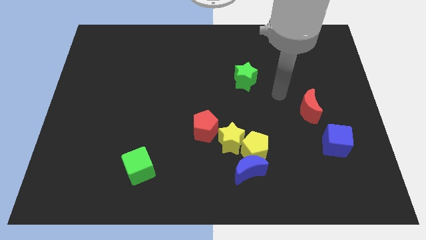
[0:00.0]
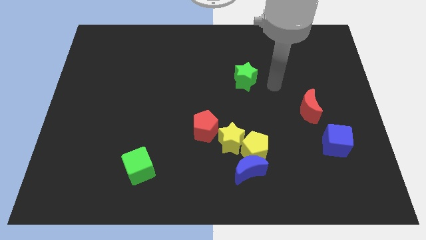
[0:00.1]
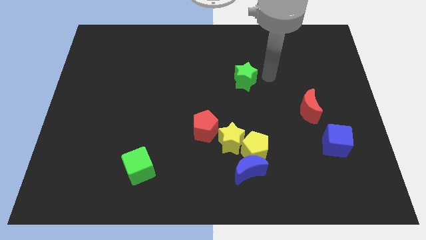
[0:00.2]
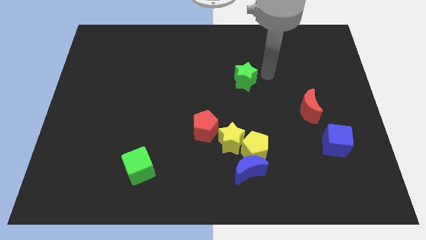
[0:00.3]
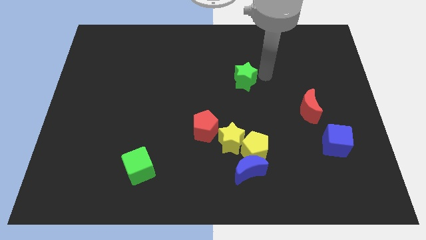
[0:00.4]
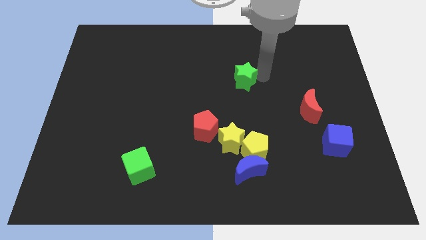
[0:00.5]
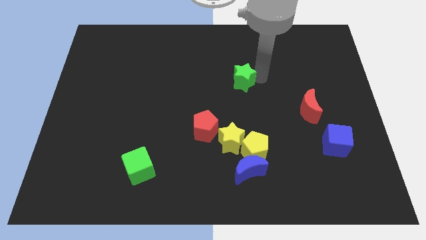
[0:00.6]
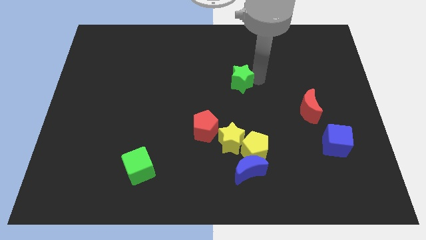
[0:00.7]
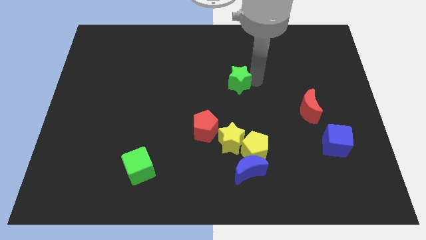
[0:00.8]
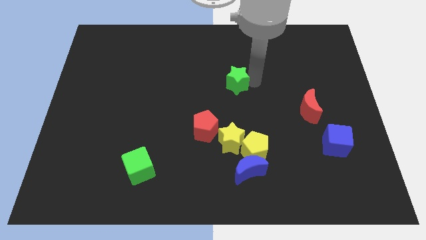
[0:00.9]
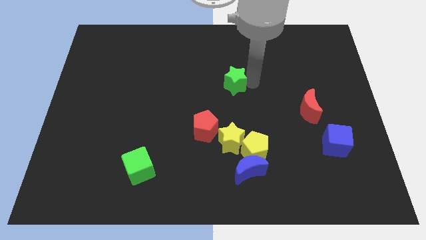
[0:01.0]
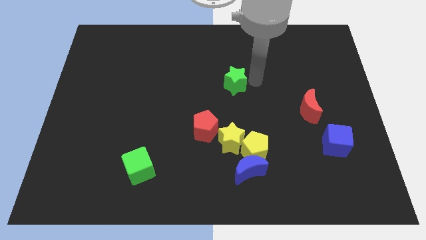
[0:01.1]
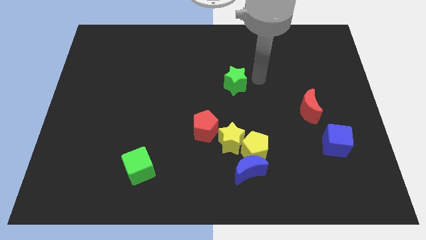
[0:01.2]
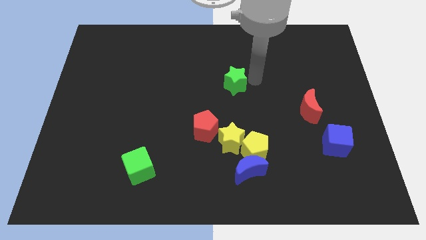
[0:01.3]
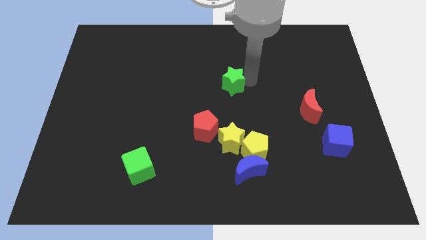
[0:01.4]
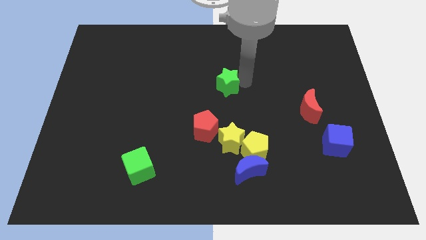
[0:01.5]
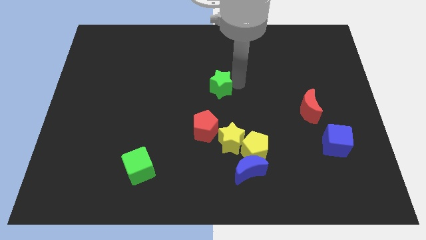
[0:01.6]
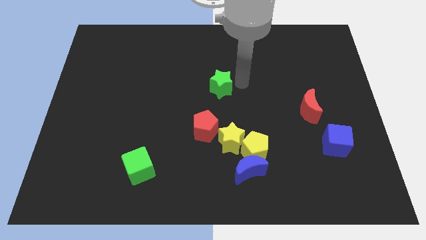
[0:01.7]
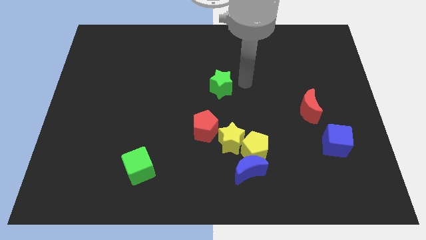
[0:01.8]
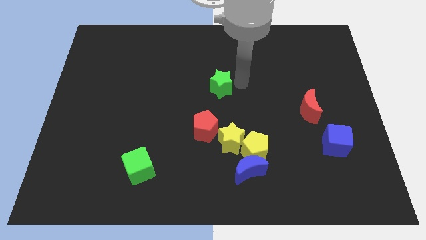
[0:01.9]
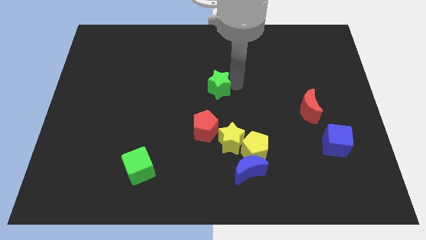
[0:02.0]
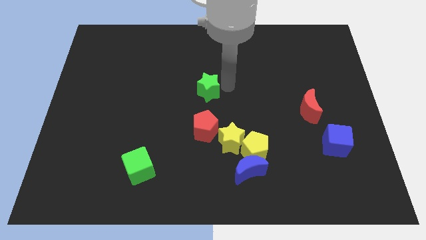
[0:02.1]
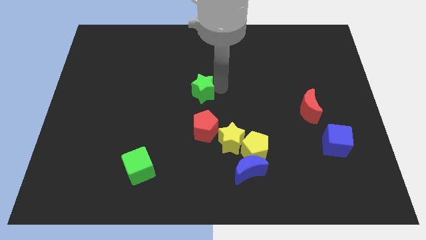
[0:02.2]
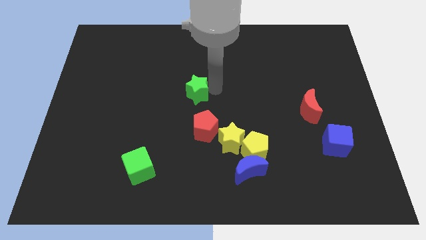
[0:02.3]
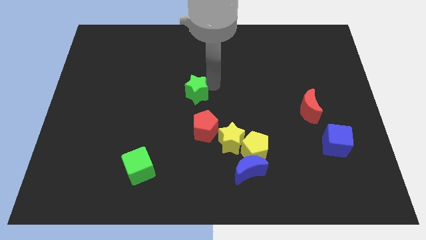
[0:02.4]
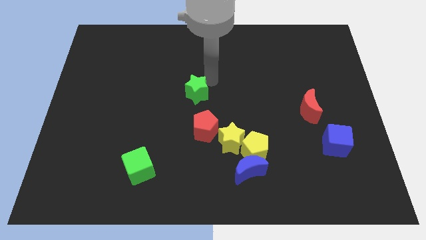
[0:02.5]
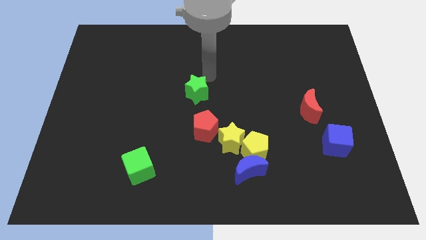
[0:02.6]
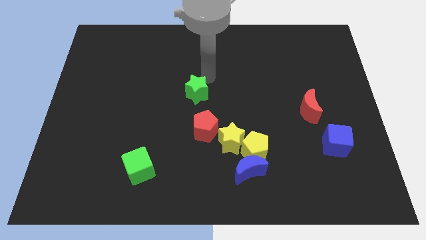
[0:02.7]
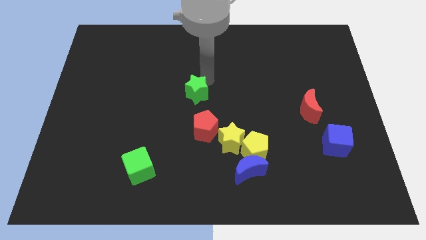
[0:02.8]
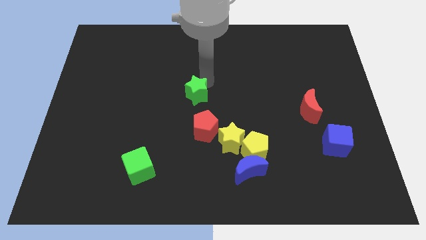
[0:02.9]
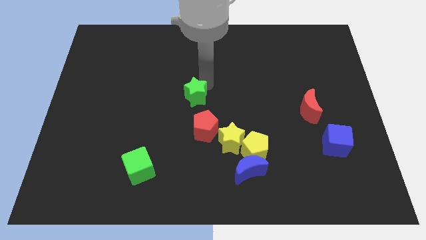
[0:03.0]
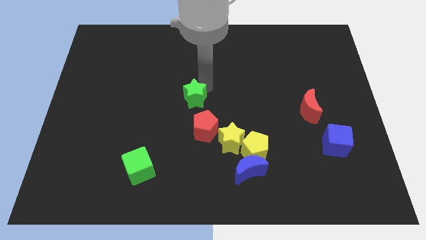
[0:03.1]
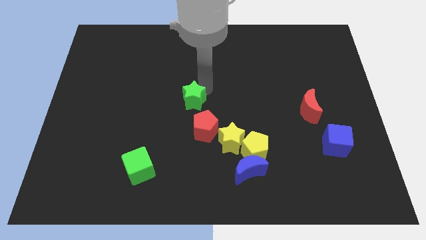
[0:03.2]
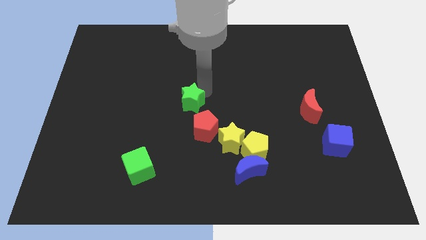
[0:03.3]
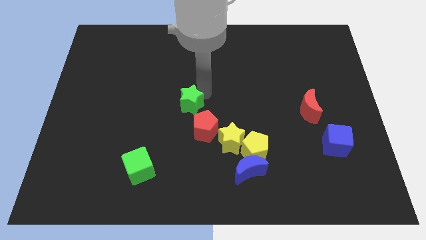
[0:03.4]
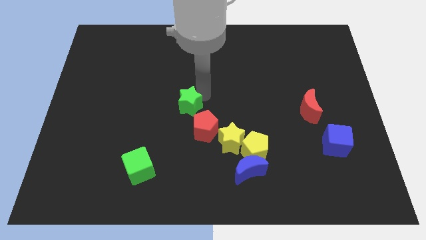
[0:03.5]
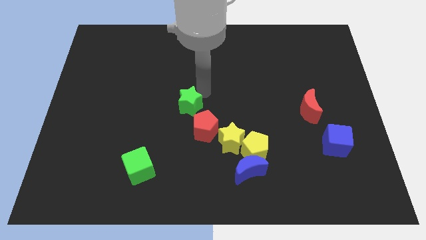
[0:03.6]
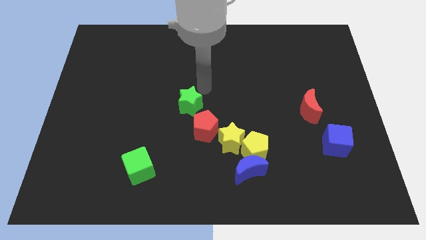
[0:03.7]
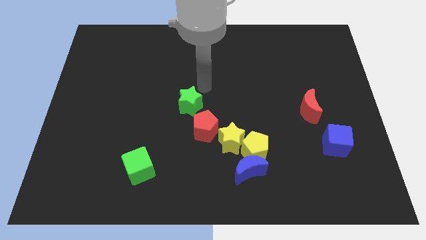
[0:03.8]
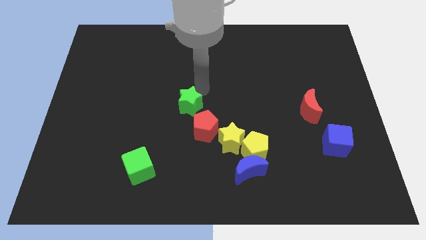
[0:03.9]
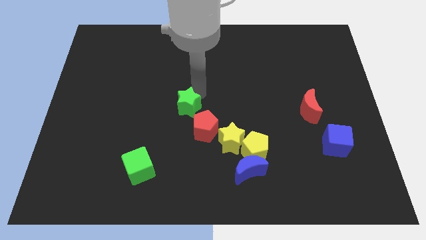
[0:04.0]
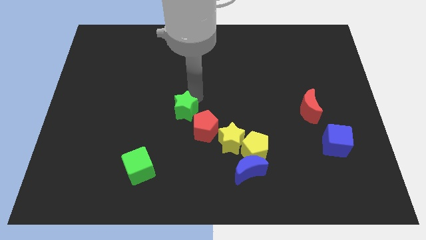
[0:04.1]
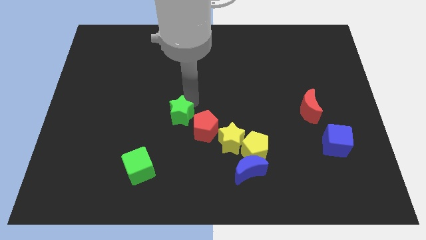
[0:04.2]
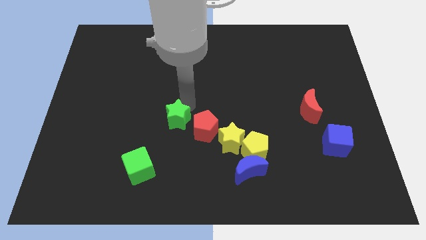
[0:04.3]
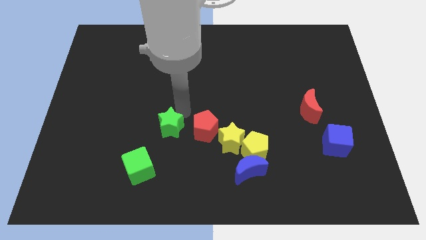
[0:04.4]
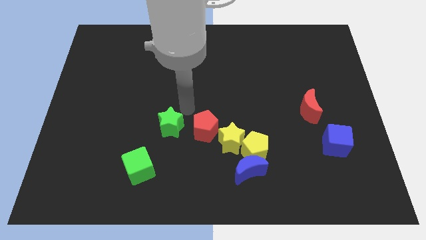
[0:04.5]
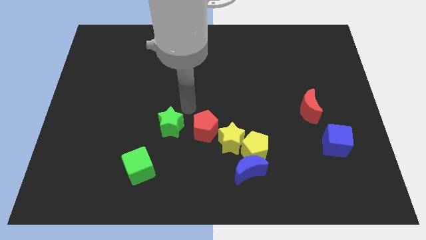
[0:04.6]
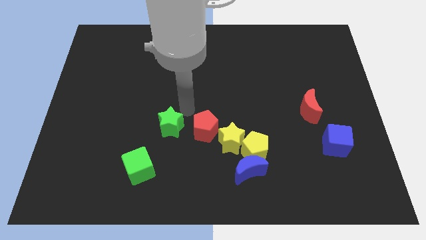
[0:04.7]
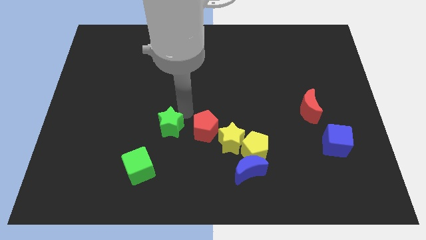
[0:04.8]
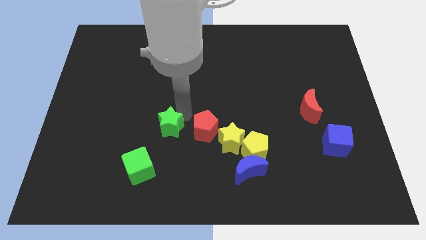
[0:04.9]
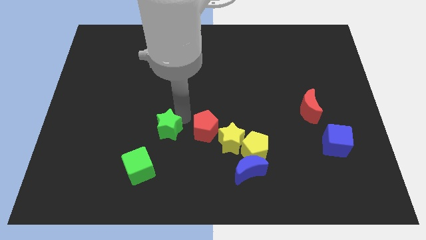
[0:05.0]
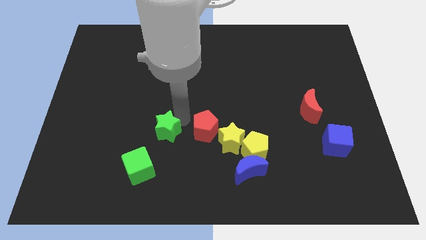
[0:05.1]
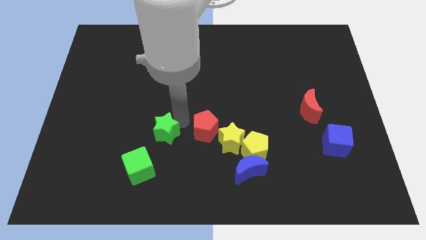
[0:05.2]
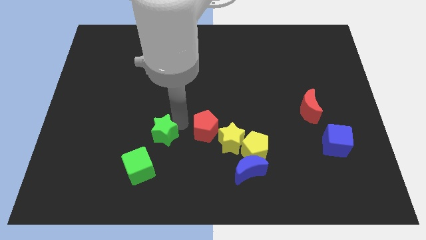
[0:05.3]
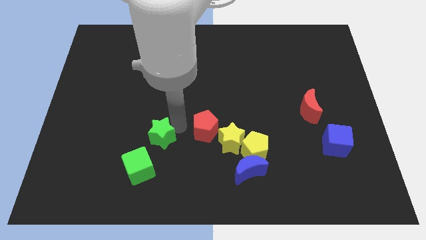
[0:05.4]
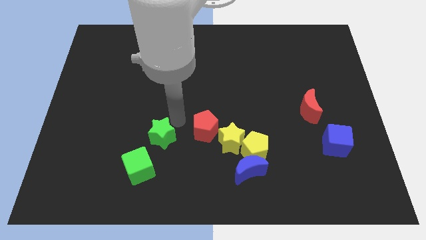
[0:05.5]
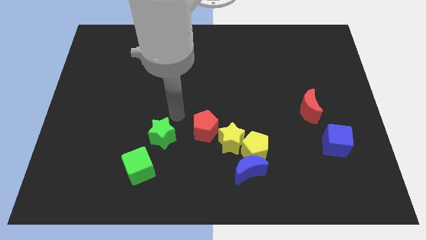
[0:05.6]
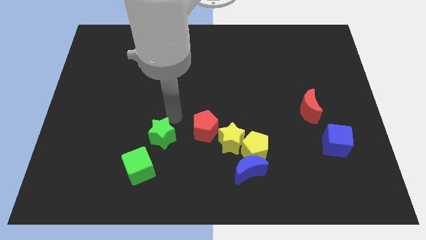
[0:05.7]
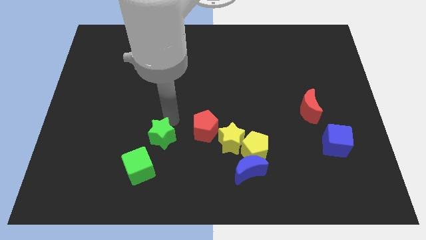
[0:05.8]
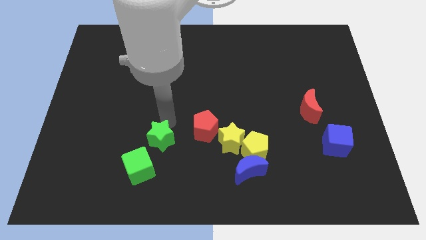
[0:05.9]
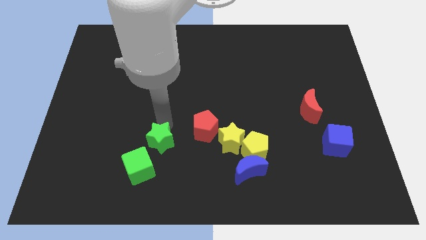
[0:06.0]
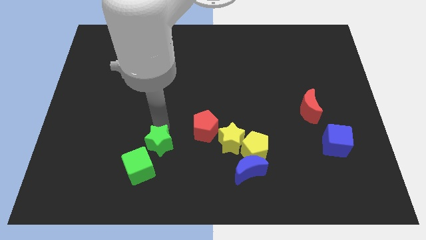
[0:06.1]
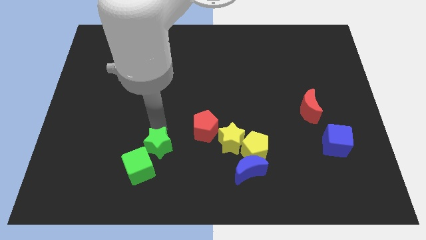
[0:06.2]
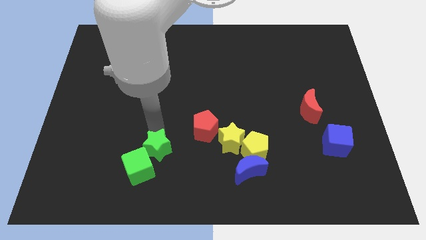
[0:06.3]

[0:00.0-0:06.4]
push the green star close to the green cube
